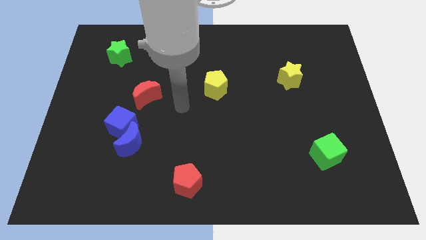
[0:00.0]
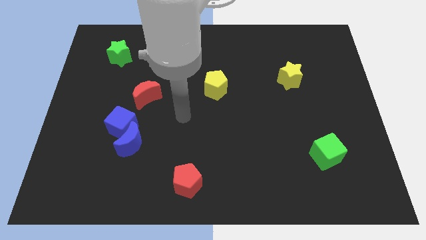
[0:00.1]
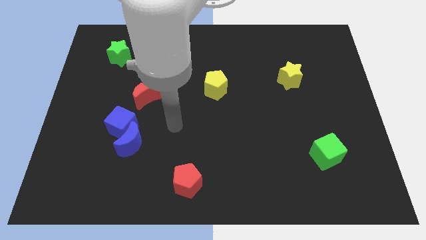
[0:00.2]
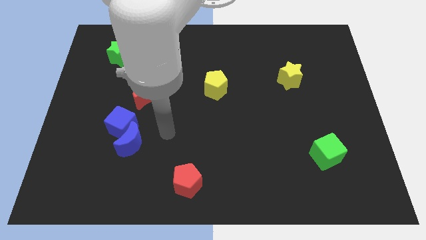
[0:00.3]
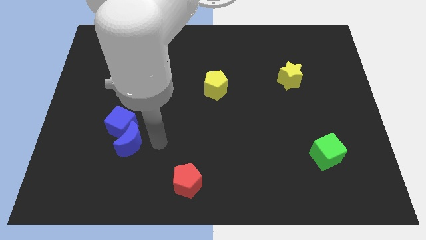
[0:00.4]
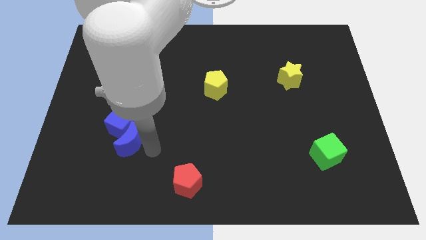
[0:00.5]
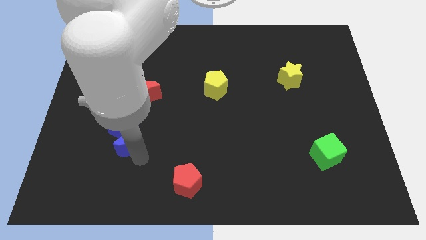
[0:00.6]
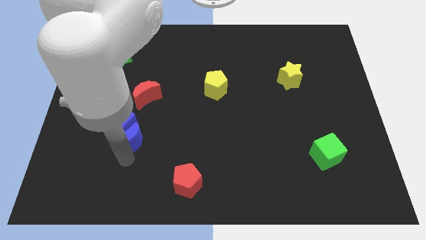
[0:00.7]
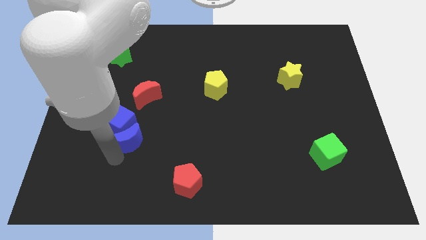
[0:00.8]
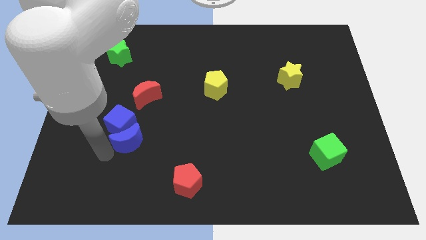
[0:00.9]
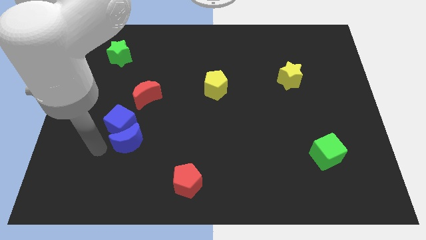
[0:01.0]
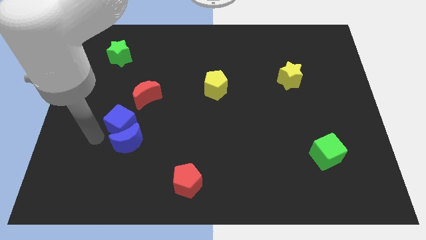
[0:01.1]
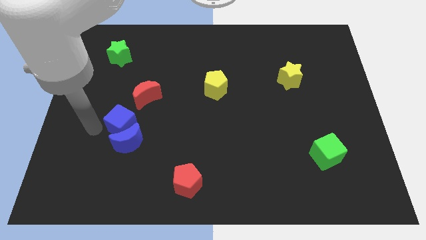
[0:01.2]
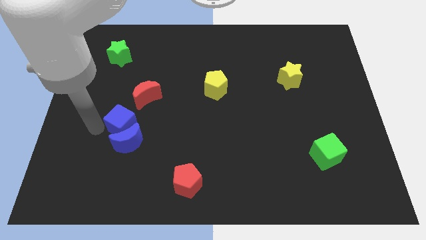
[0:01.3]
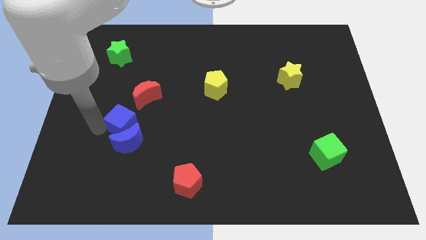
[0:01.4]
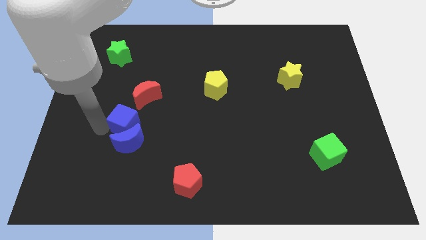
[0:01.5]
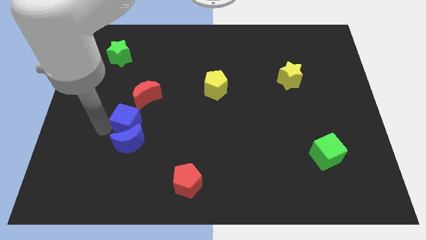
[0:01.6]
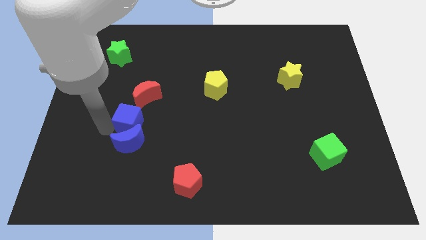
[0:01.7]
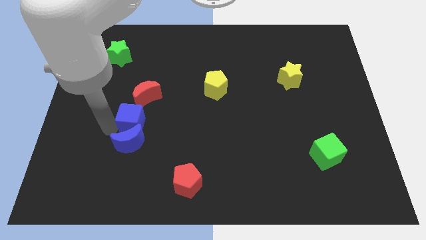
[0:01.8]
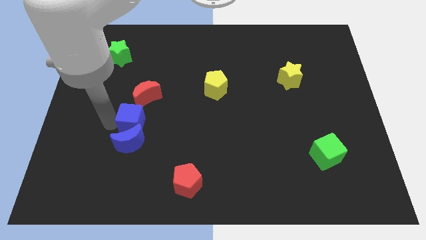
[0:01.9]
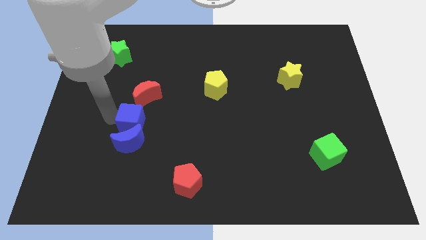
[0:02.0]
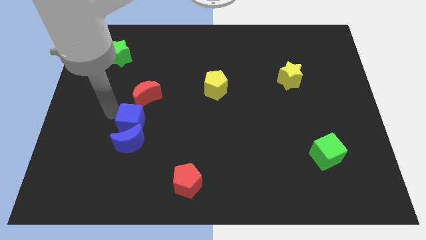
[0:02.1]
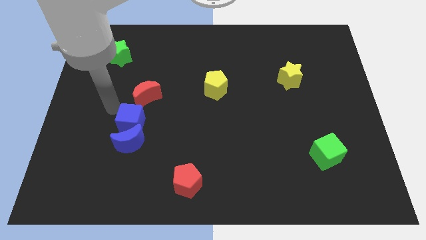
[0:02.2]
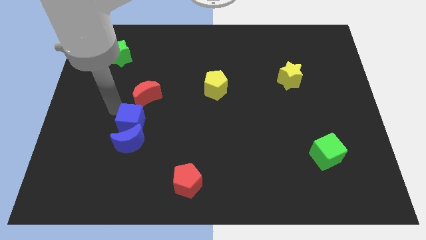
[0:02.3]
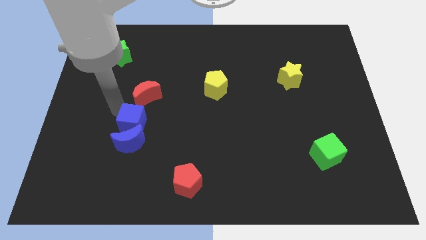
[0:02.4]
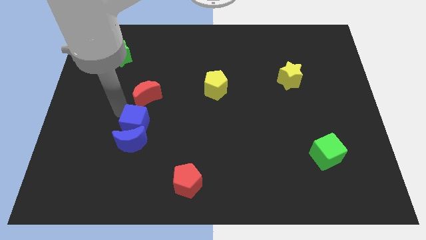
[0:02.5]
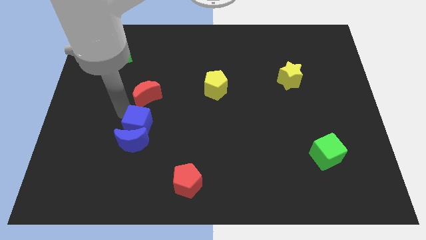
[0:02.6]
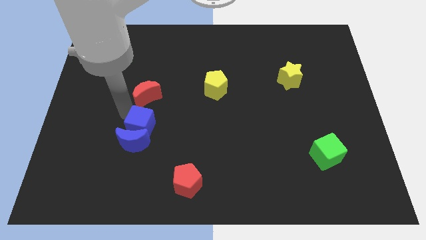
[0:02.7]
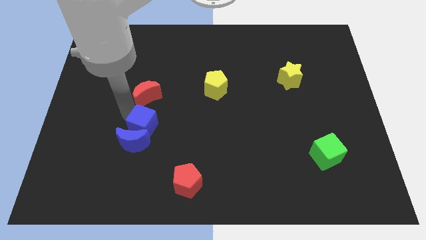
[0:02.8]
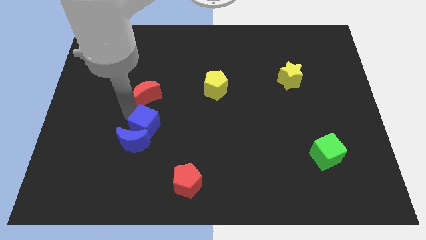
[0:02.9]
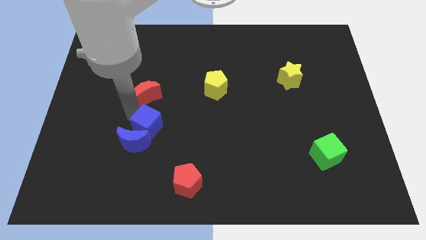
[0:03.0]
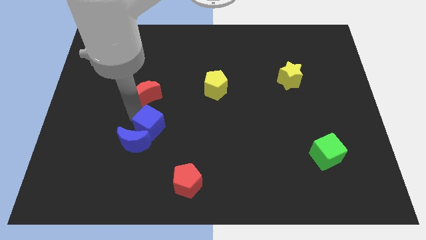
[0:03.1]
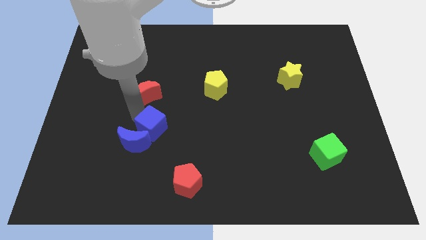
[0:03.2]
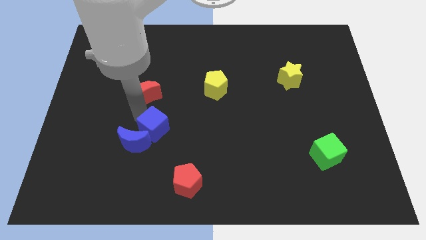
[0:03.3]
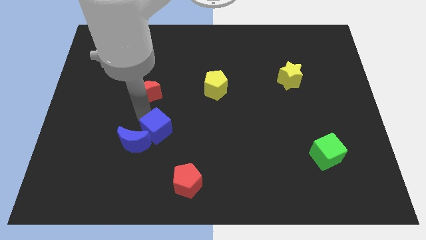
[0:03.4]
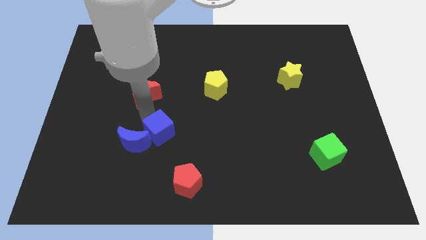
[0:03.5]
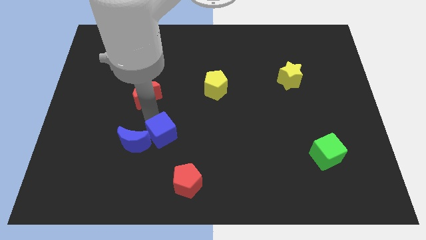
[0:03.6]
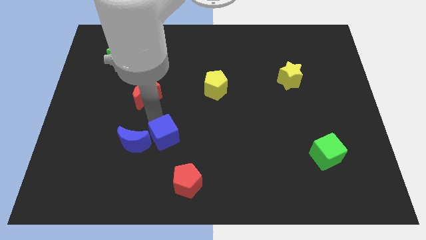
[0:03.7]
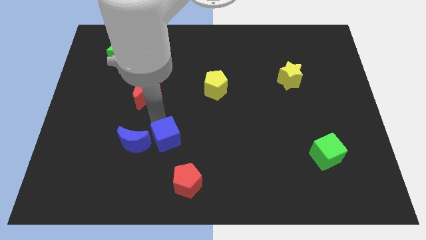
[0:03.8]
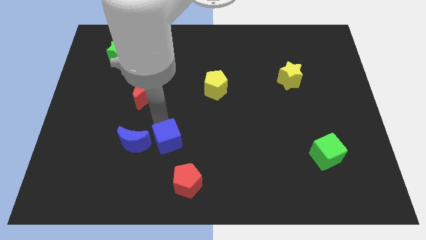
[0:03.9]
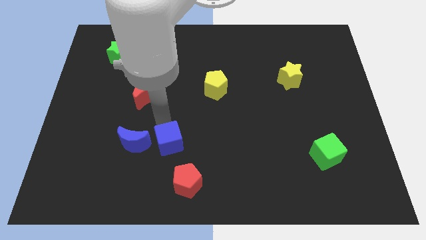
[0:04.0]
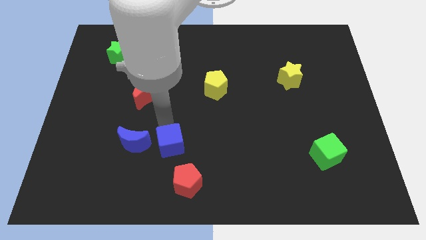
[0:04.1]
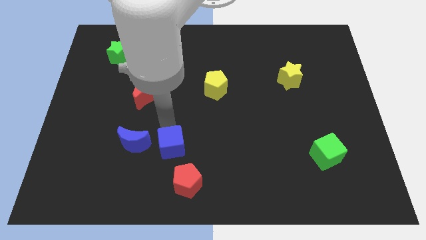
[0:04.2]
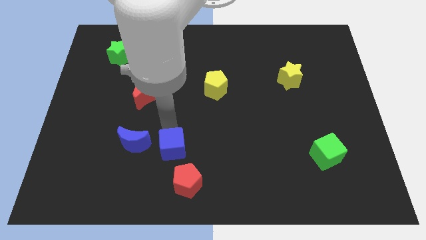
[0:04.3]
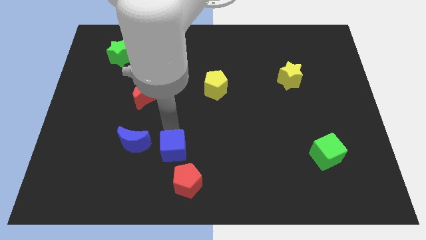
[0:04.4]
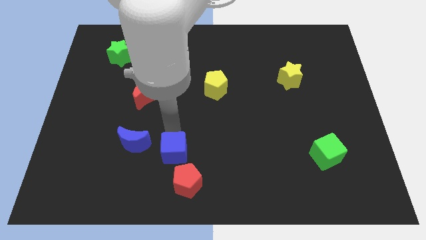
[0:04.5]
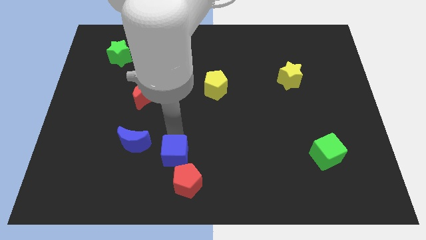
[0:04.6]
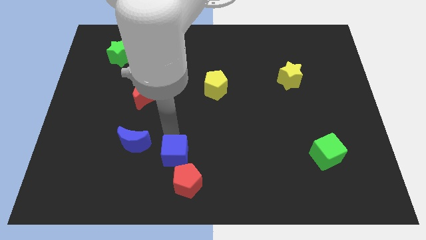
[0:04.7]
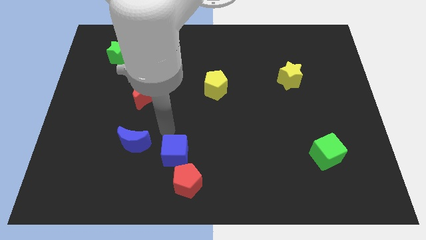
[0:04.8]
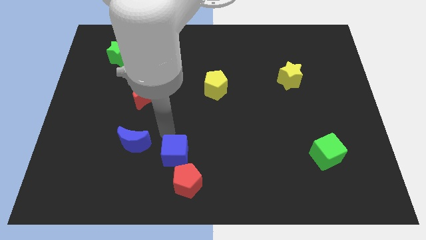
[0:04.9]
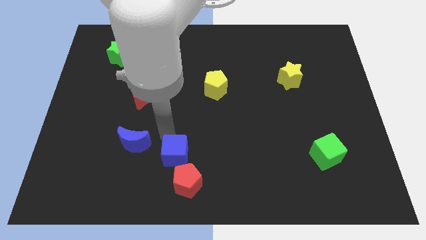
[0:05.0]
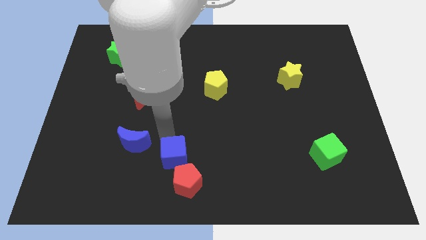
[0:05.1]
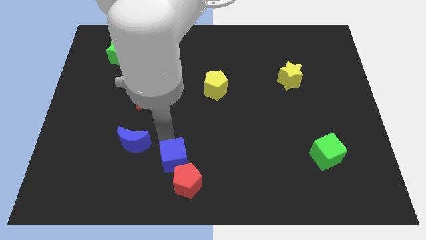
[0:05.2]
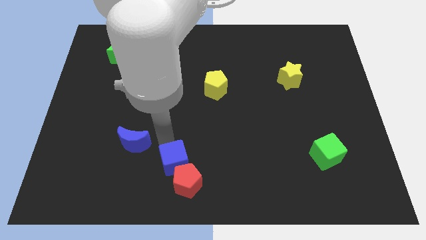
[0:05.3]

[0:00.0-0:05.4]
slide the blue cube close to the red pentagon
